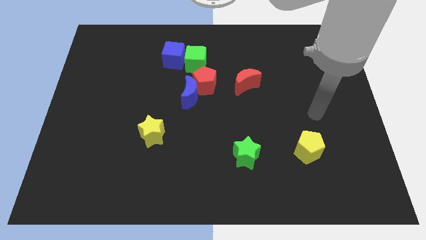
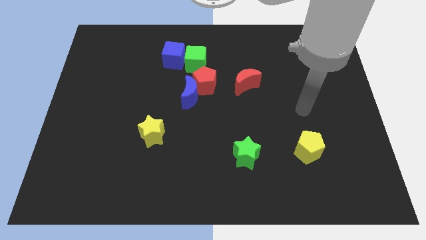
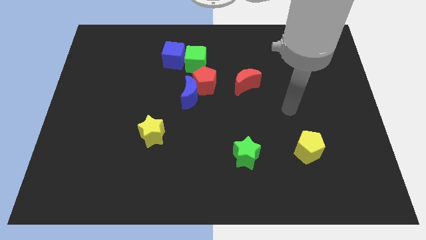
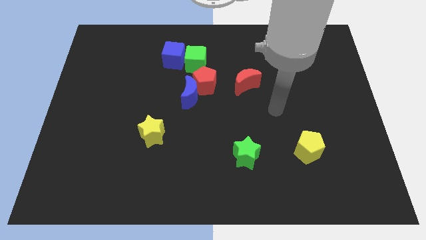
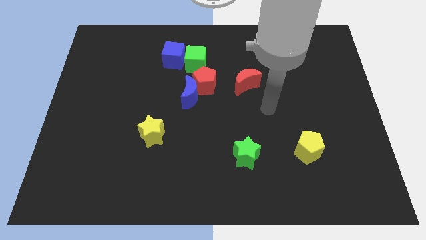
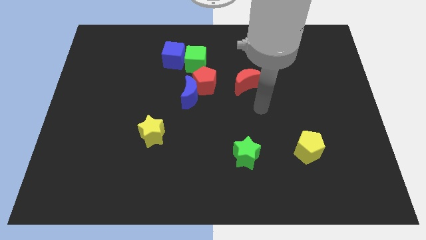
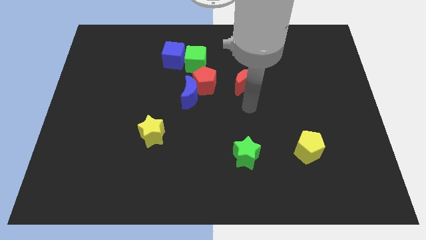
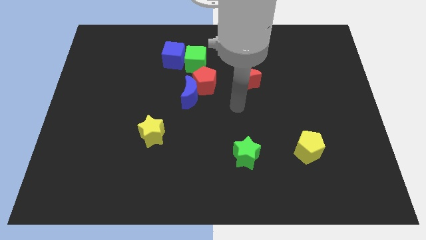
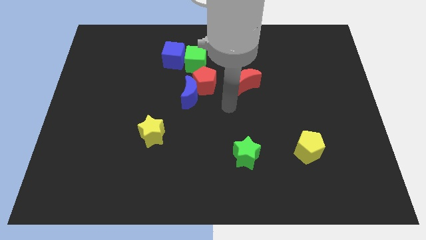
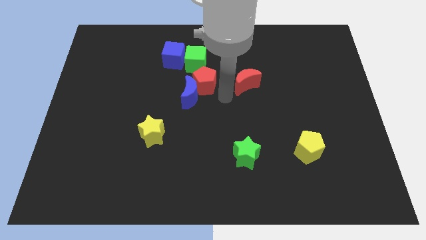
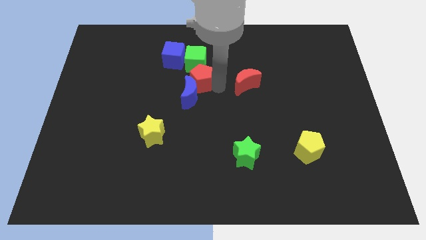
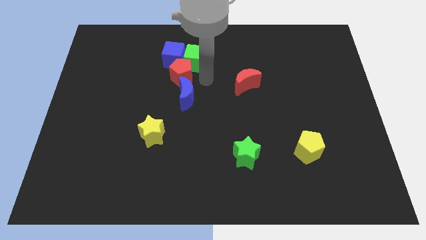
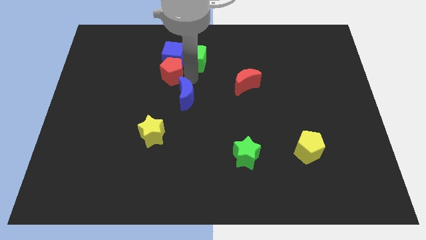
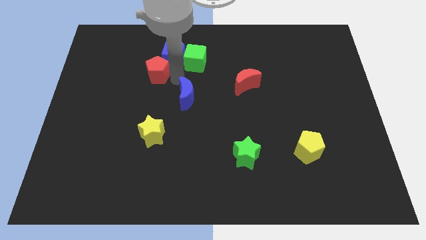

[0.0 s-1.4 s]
move the blue moon away from the red pentagon

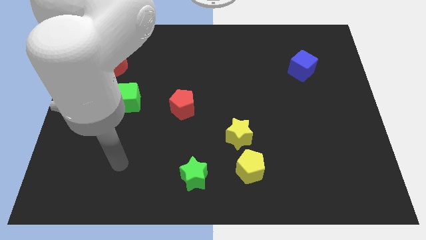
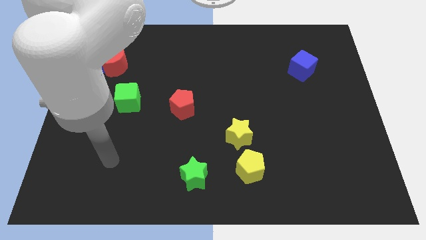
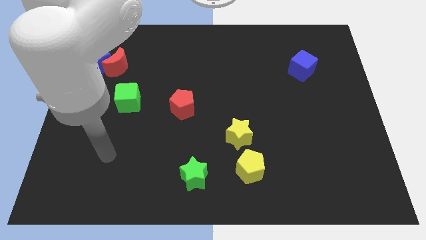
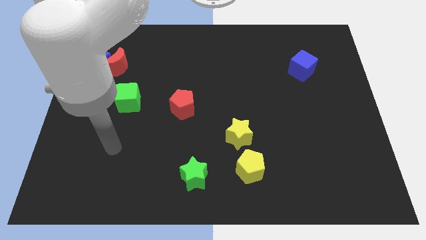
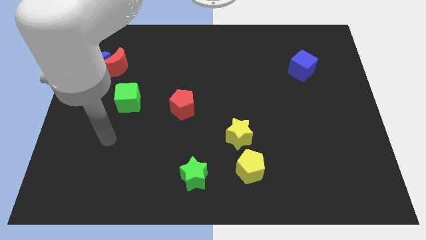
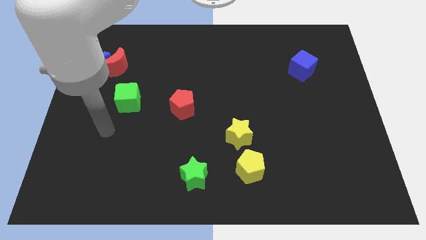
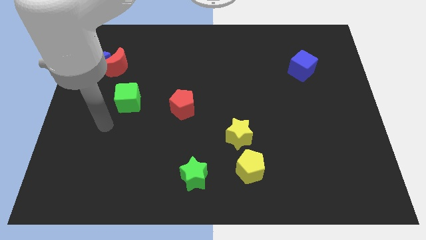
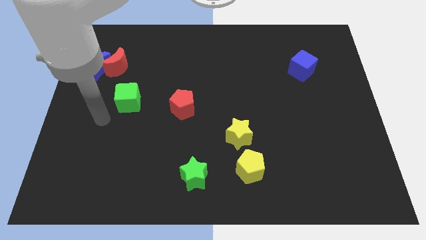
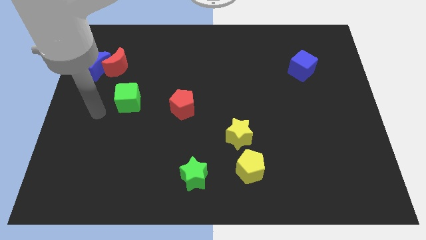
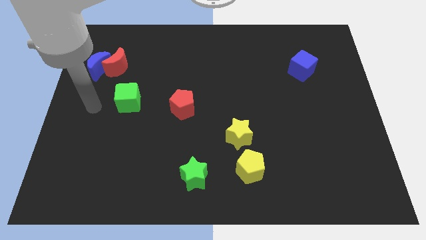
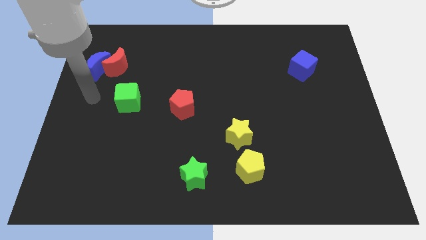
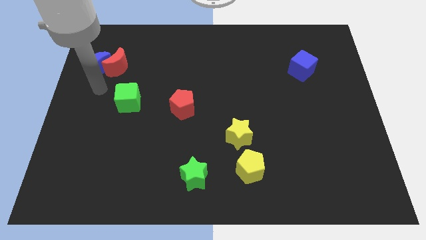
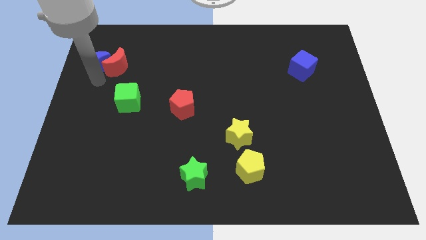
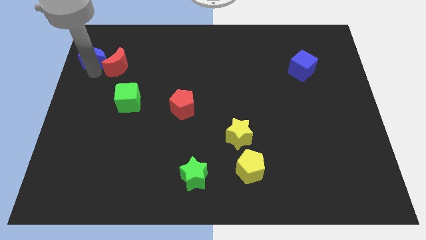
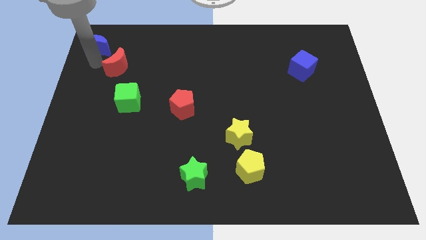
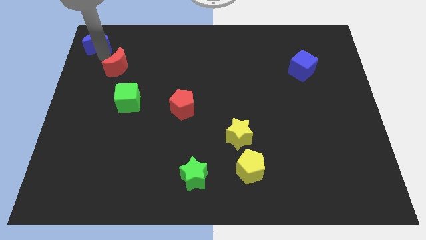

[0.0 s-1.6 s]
pull the red moon apart from the blue moon

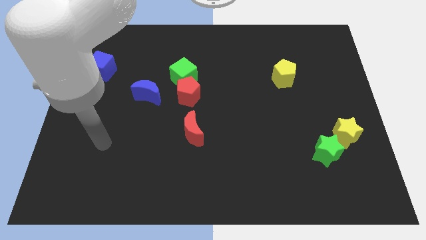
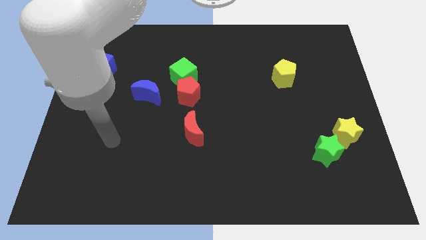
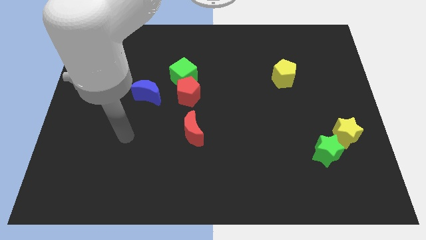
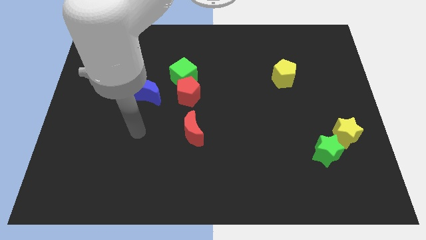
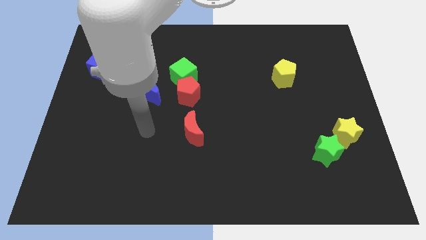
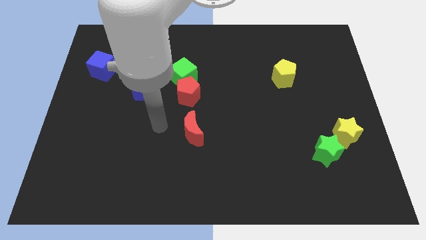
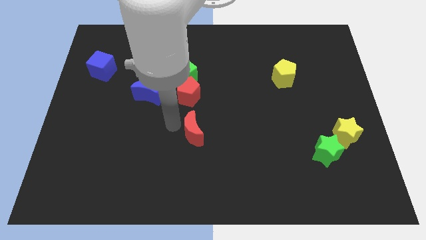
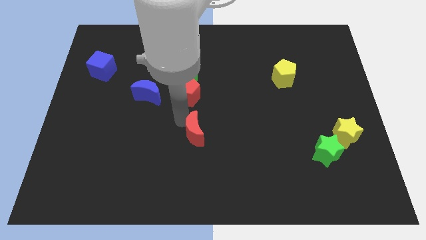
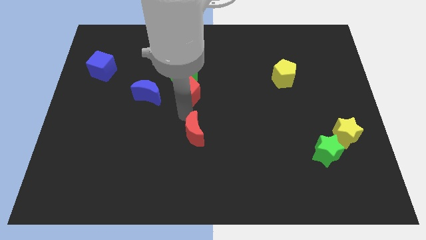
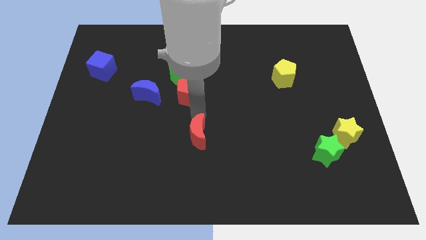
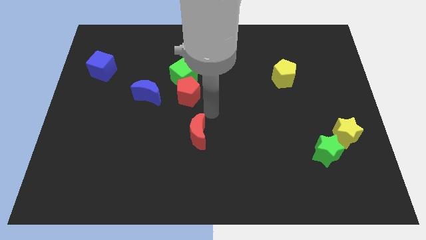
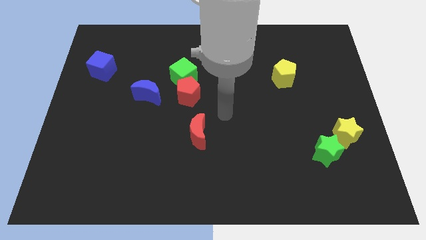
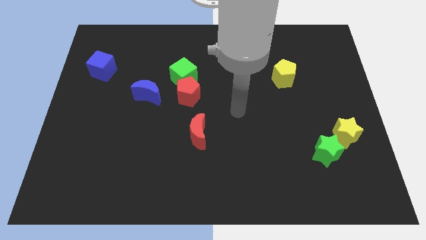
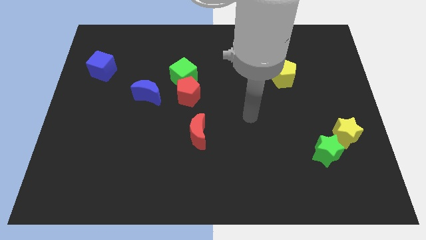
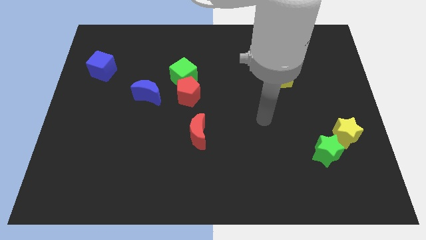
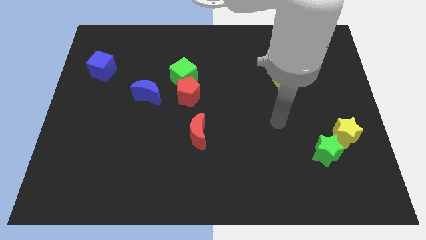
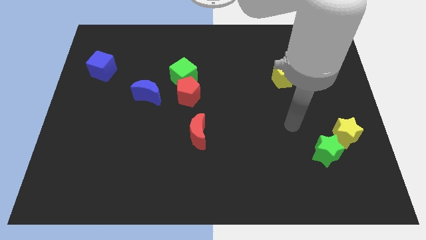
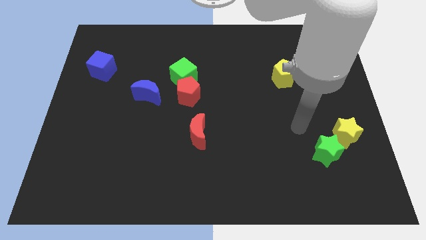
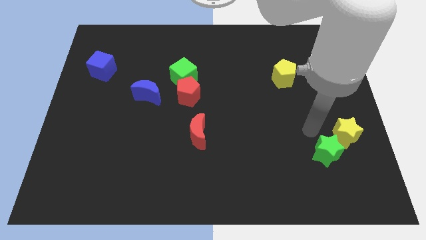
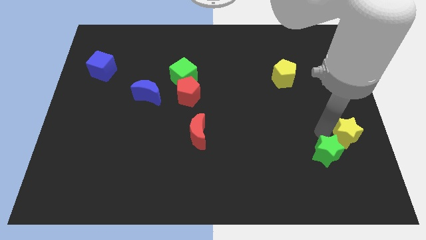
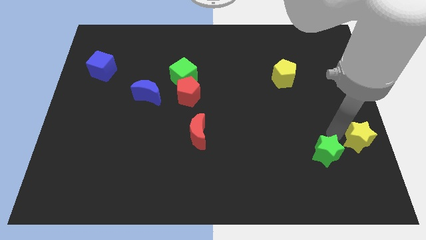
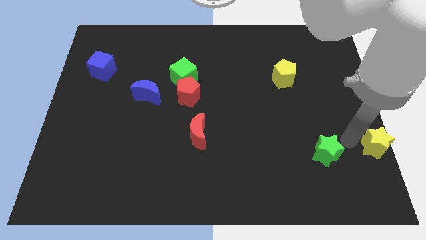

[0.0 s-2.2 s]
separate the green star from the yellow star

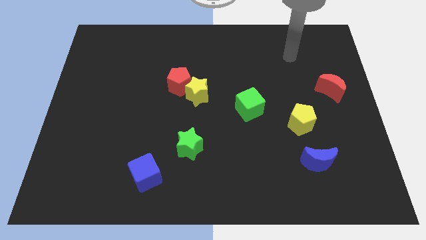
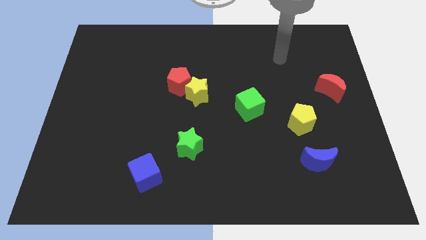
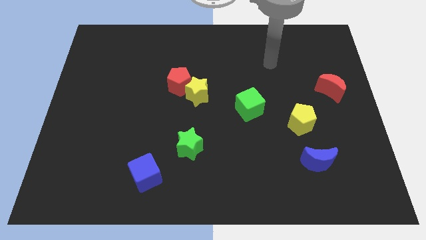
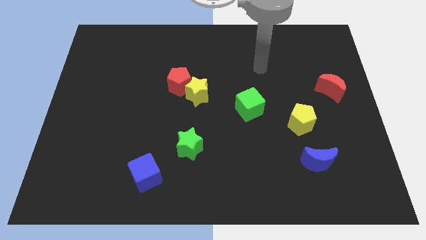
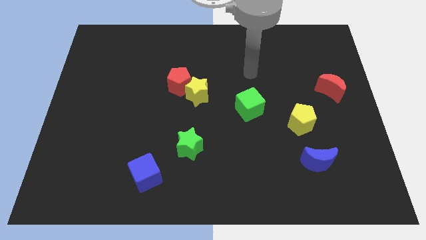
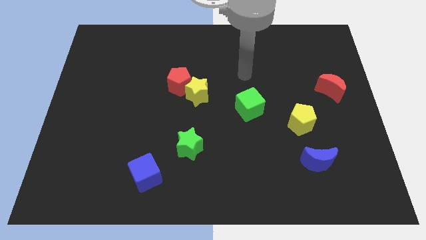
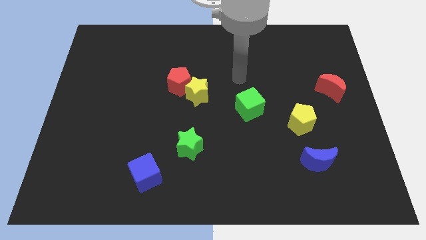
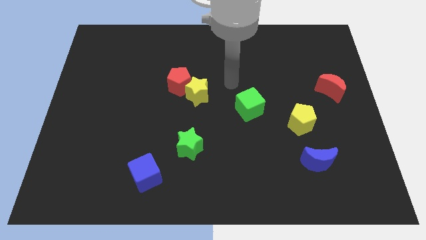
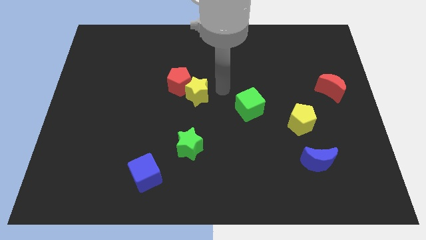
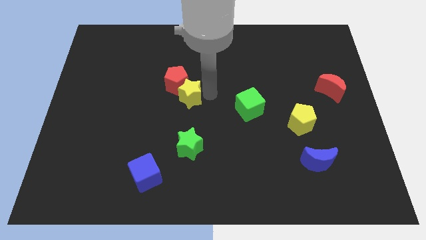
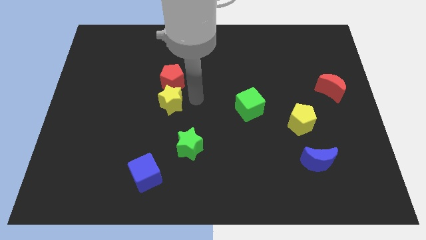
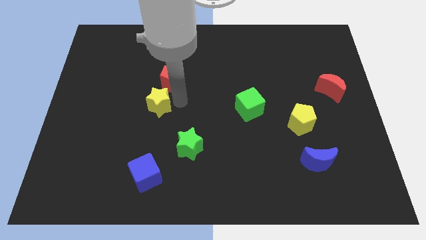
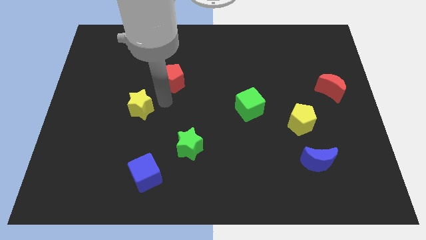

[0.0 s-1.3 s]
move the red pentagon away from the yellow star

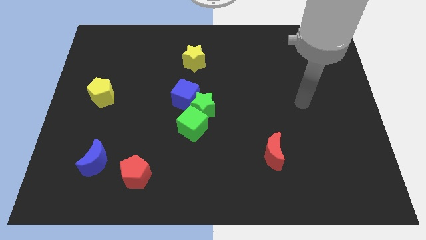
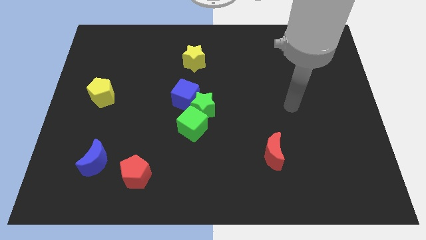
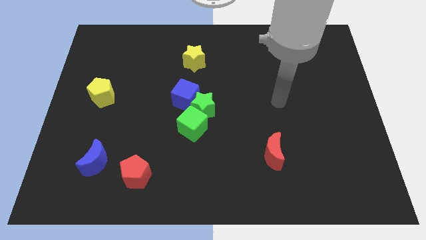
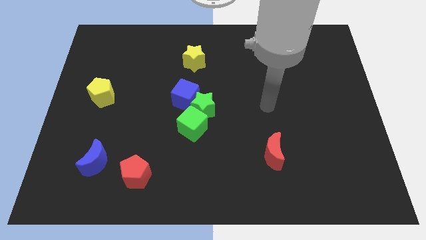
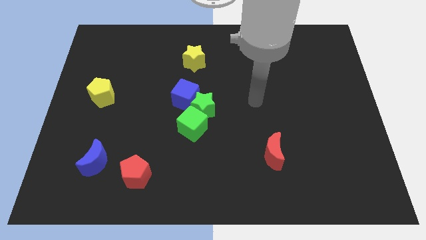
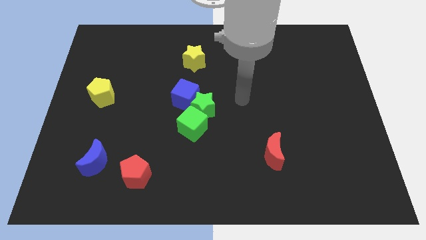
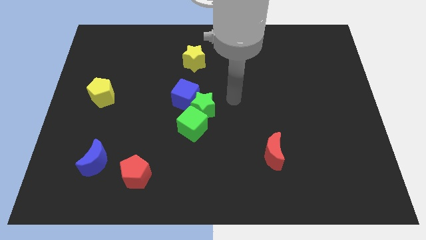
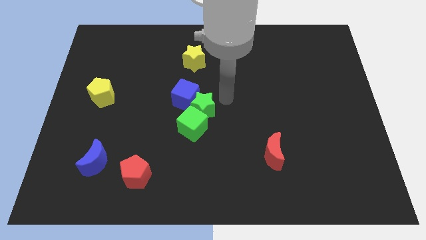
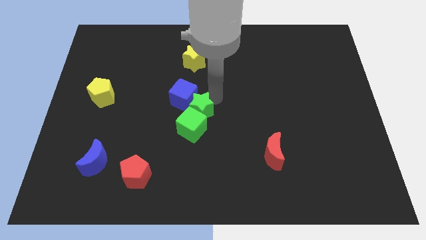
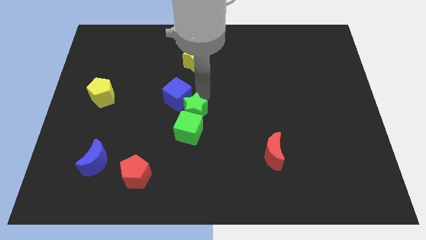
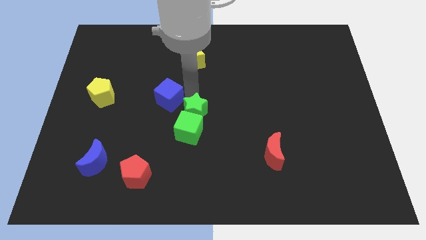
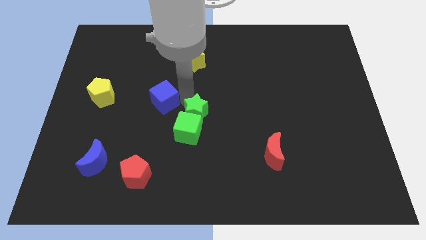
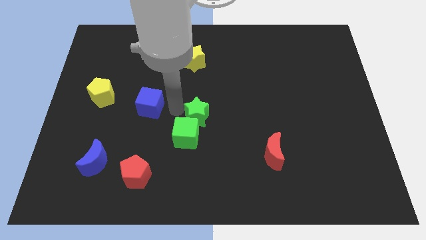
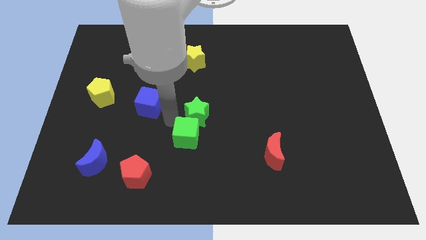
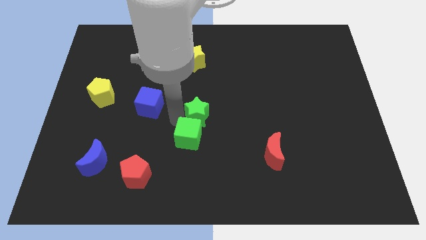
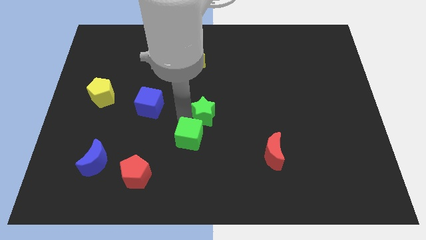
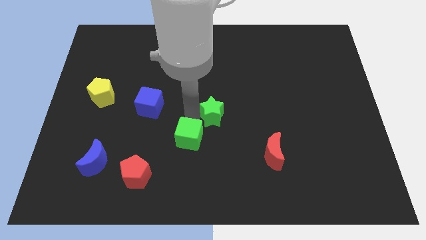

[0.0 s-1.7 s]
move the green star away from the green cube and blue cube

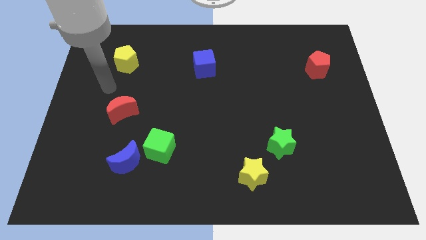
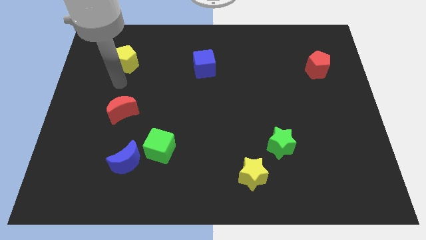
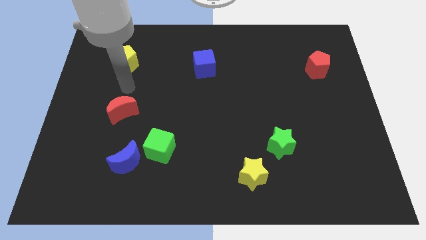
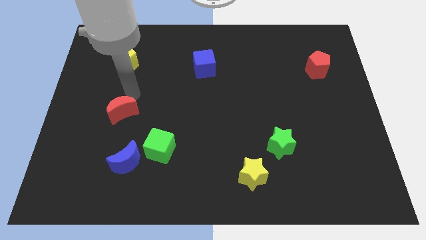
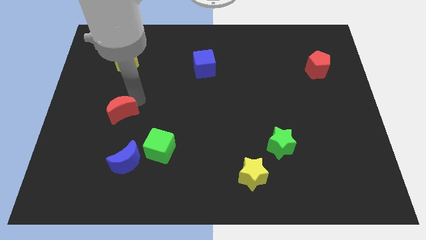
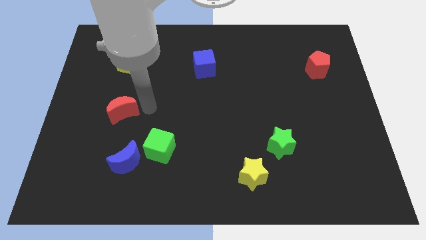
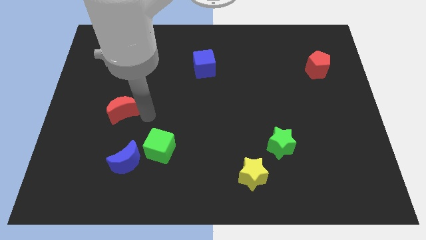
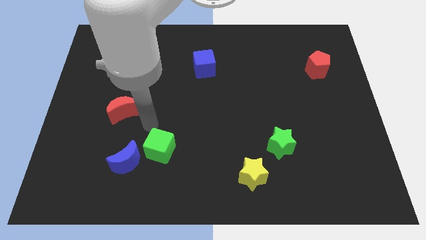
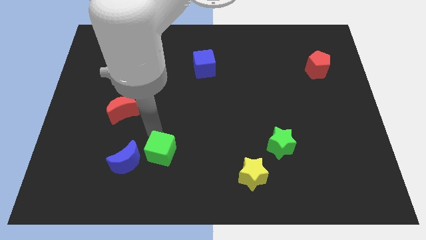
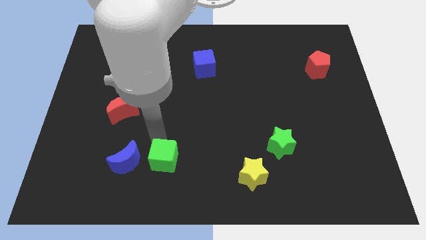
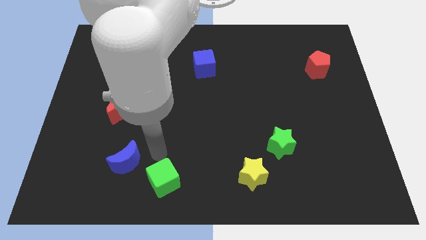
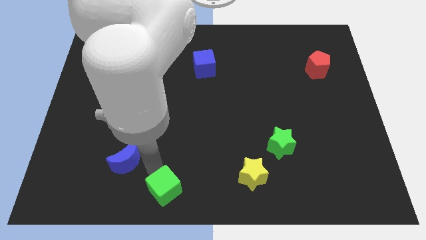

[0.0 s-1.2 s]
separate the blue moon from the green cube
